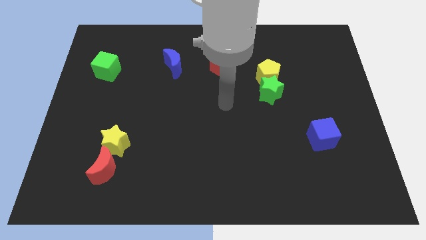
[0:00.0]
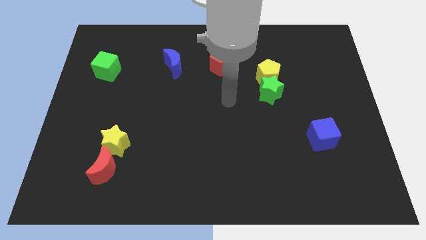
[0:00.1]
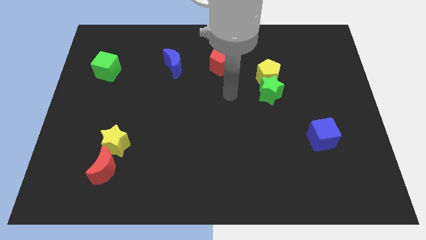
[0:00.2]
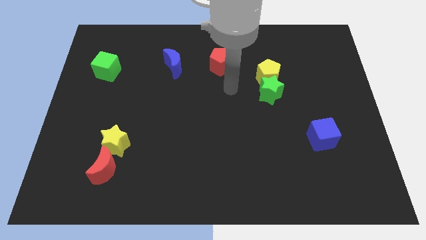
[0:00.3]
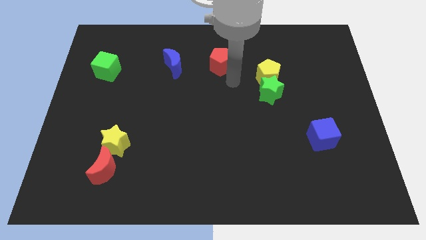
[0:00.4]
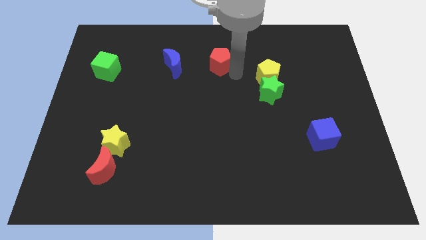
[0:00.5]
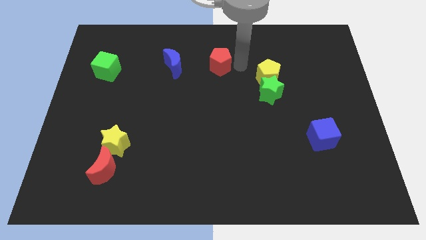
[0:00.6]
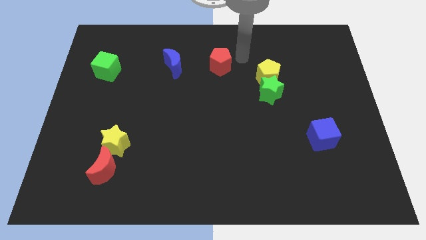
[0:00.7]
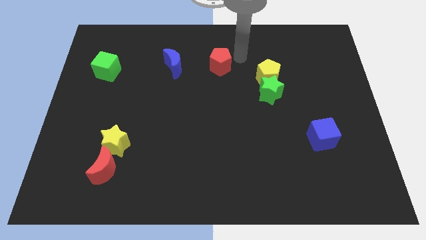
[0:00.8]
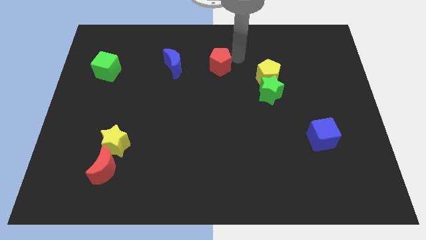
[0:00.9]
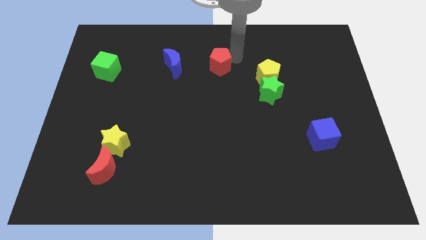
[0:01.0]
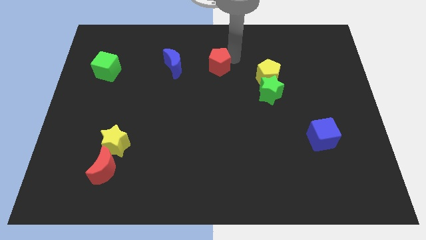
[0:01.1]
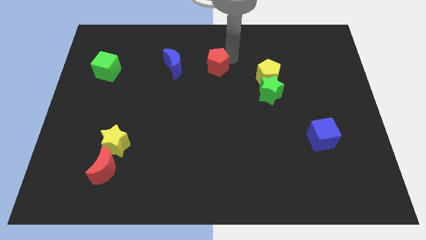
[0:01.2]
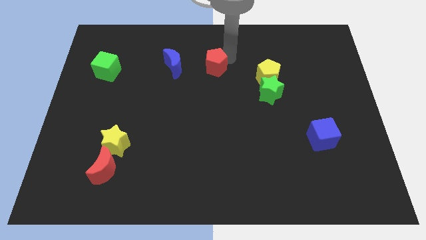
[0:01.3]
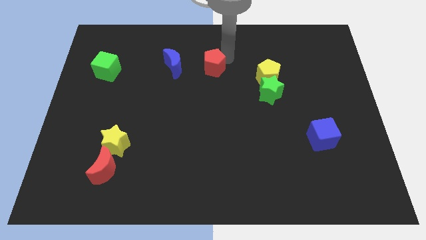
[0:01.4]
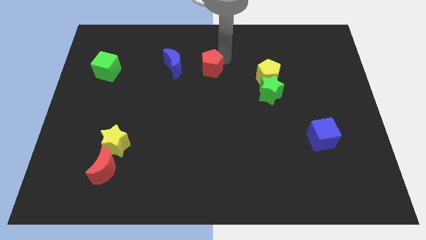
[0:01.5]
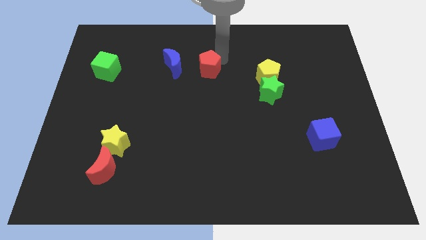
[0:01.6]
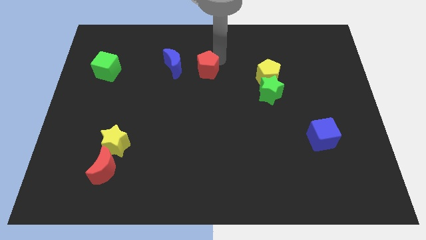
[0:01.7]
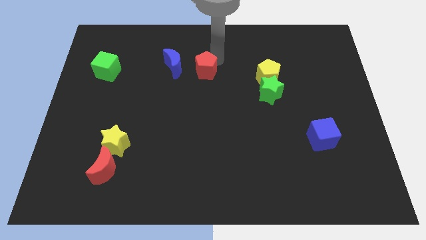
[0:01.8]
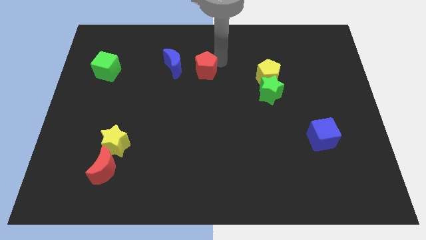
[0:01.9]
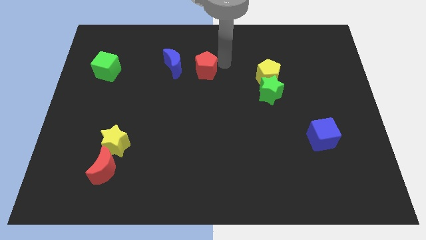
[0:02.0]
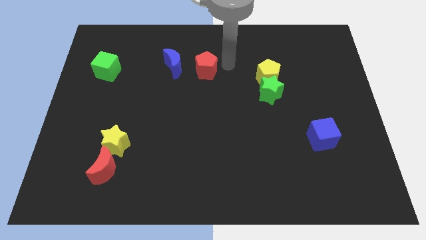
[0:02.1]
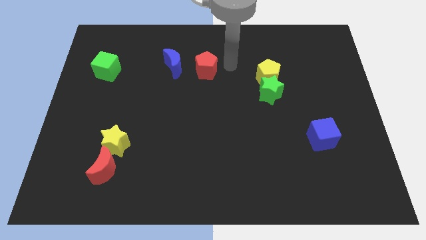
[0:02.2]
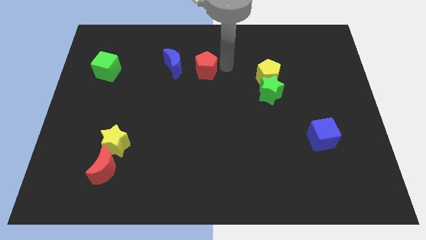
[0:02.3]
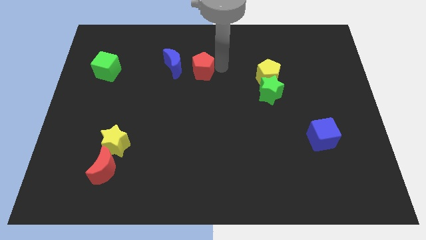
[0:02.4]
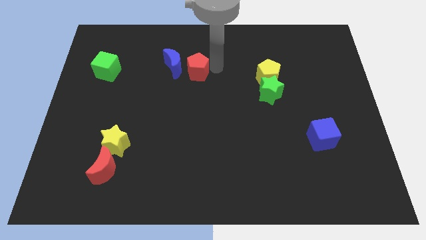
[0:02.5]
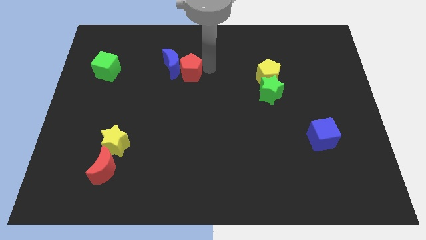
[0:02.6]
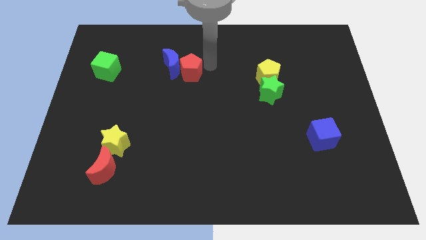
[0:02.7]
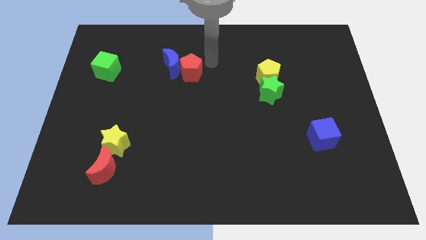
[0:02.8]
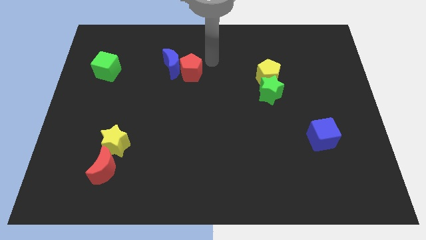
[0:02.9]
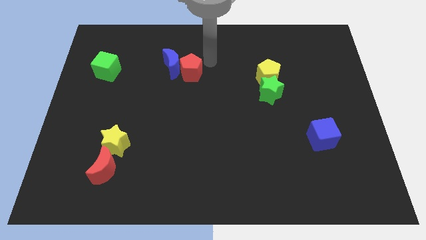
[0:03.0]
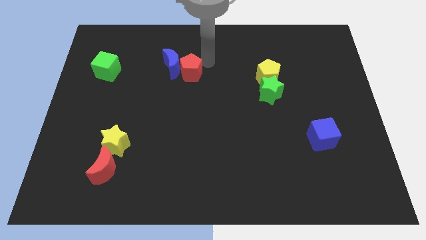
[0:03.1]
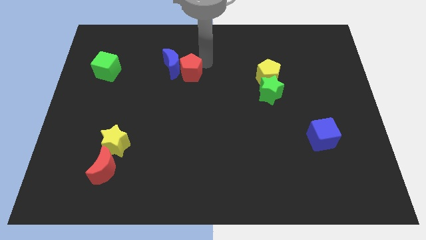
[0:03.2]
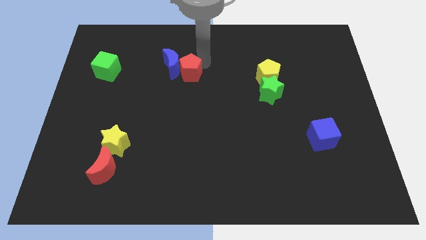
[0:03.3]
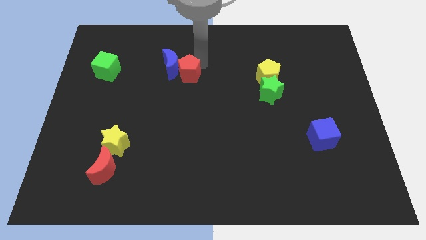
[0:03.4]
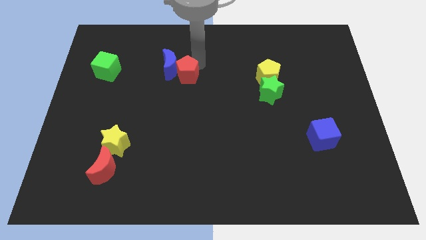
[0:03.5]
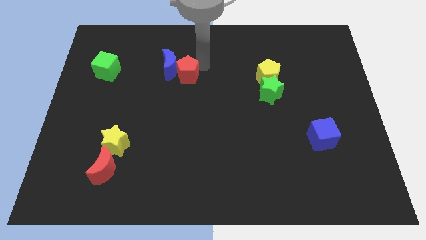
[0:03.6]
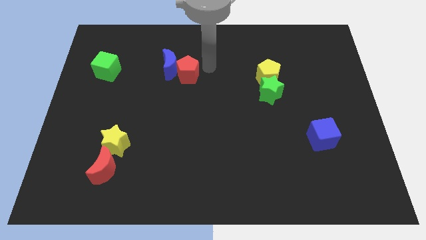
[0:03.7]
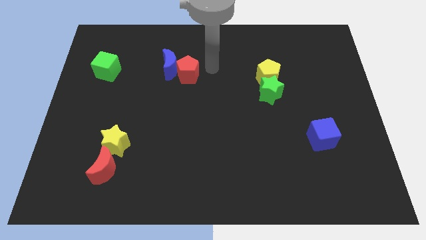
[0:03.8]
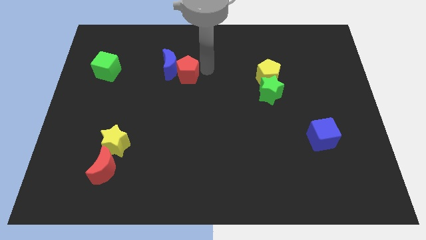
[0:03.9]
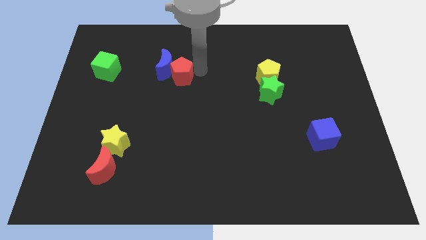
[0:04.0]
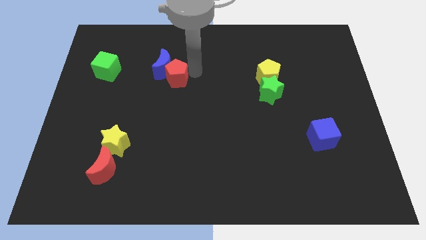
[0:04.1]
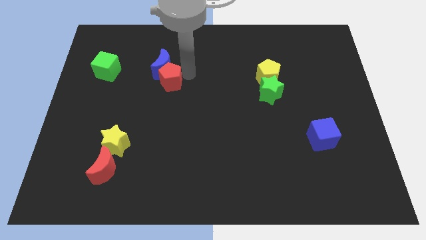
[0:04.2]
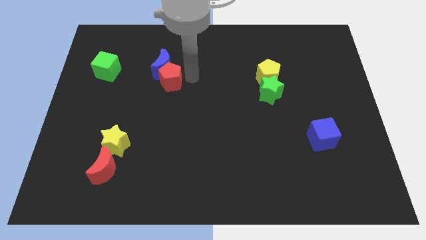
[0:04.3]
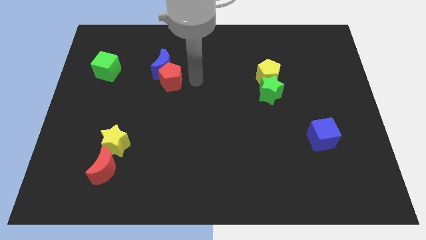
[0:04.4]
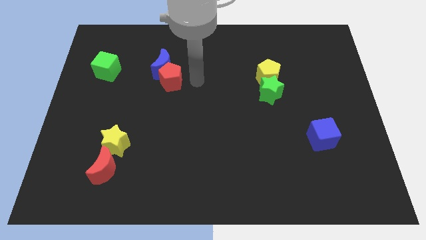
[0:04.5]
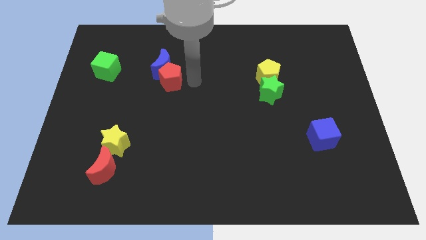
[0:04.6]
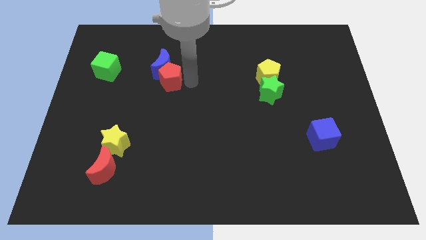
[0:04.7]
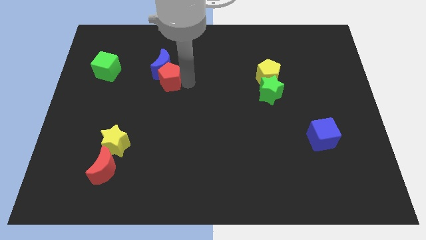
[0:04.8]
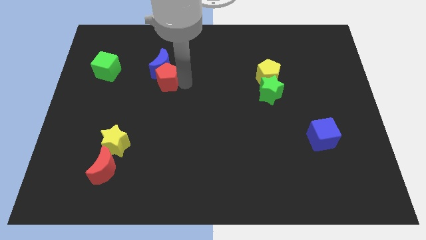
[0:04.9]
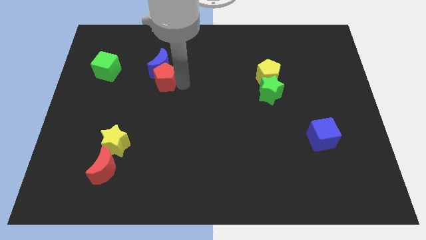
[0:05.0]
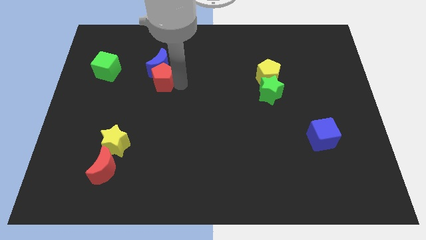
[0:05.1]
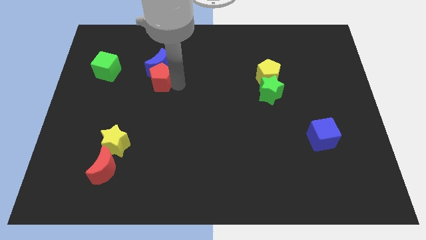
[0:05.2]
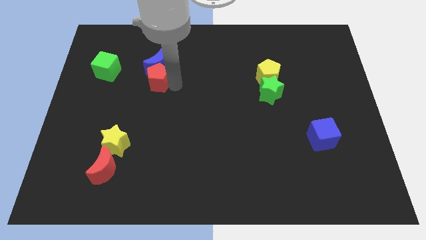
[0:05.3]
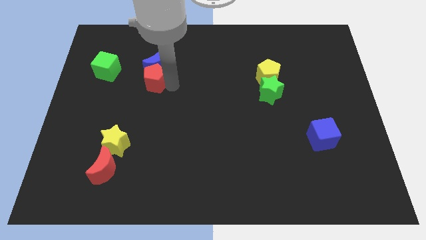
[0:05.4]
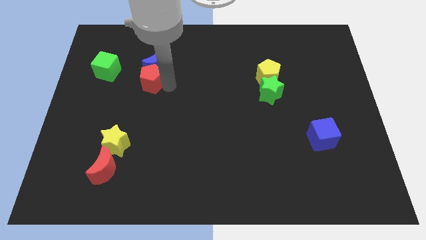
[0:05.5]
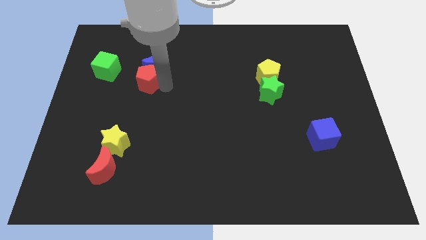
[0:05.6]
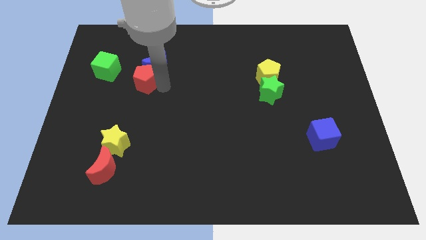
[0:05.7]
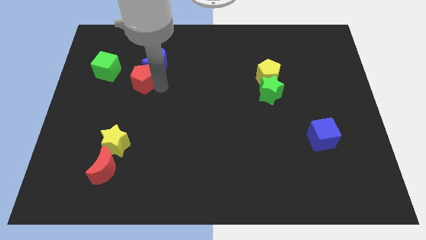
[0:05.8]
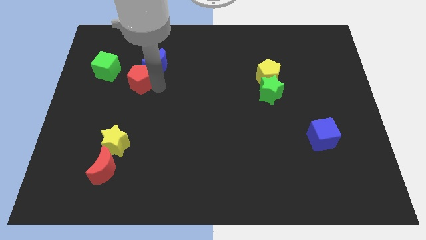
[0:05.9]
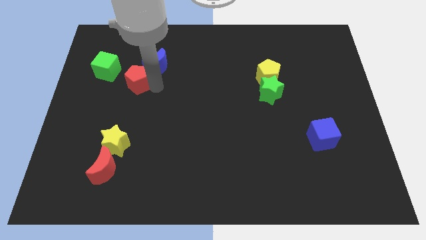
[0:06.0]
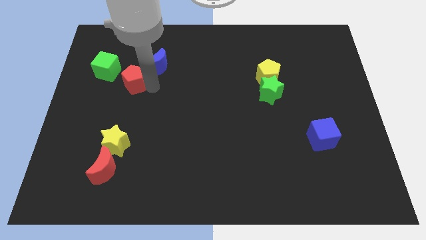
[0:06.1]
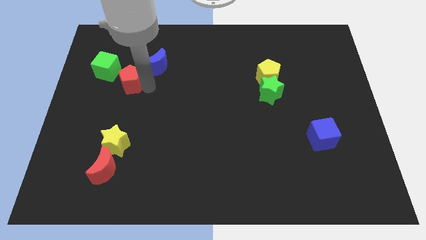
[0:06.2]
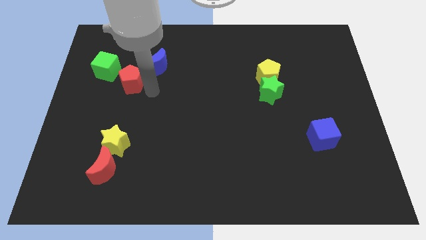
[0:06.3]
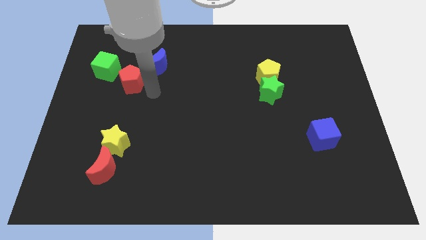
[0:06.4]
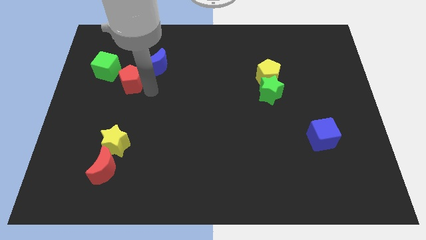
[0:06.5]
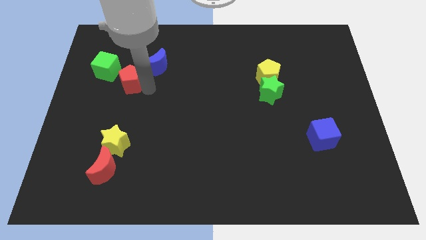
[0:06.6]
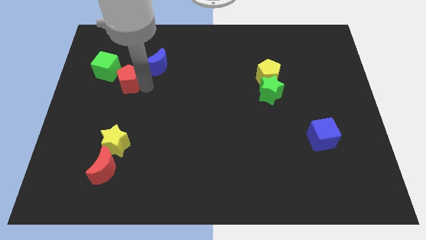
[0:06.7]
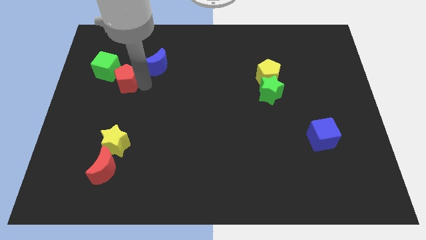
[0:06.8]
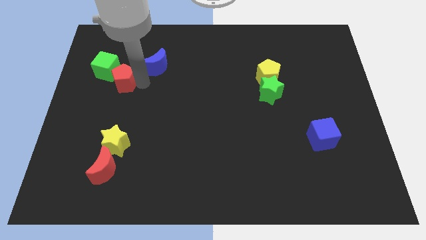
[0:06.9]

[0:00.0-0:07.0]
put the red pentagon towards the green cube

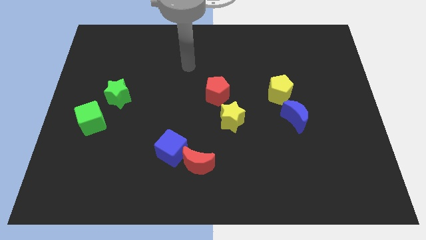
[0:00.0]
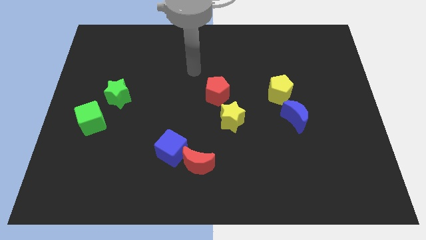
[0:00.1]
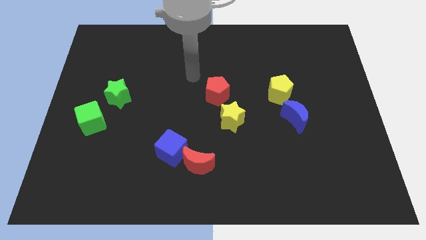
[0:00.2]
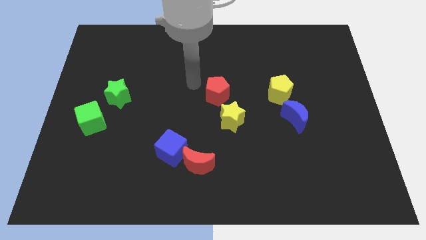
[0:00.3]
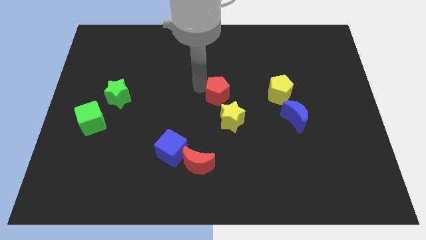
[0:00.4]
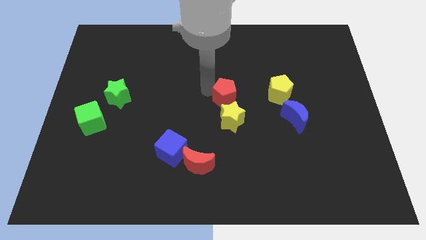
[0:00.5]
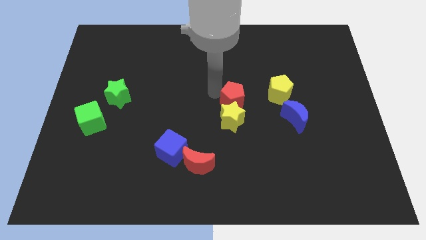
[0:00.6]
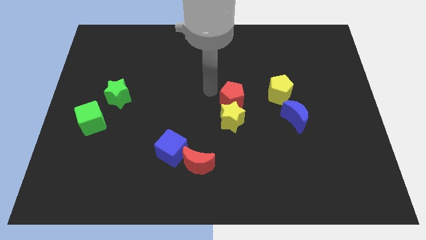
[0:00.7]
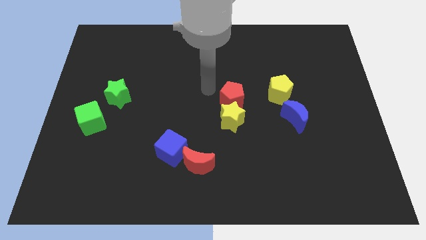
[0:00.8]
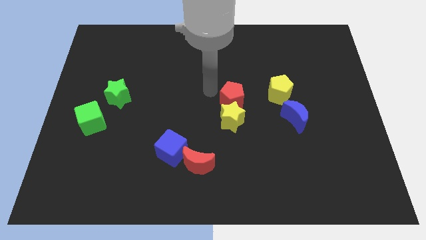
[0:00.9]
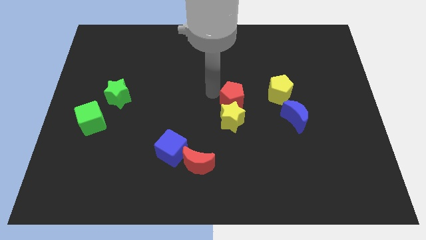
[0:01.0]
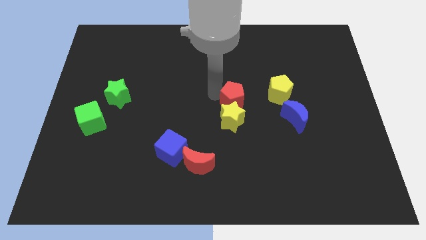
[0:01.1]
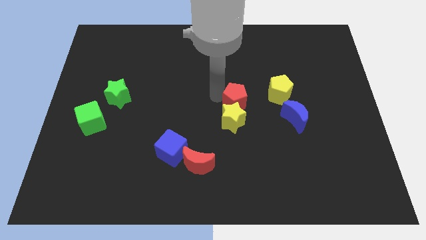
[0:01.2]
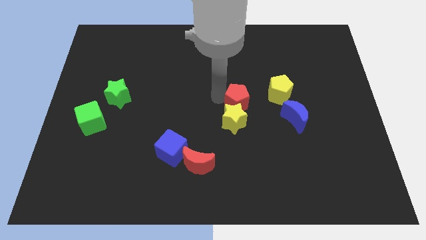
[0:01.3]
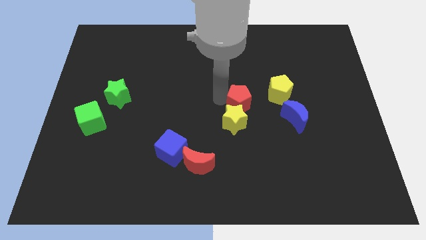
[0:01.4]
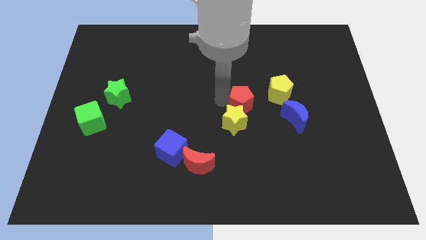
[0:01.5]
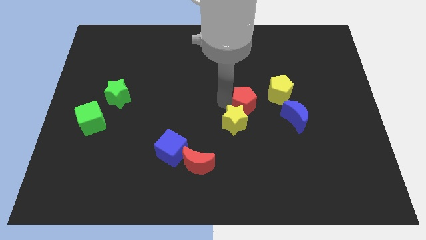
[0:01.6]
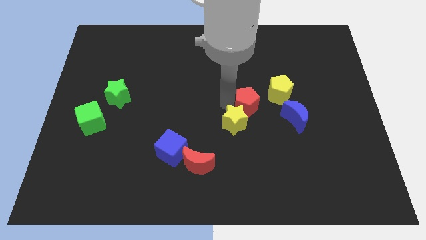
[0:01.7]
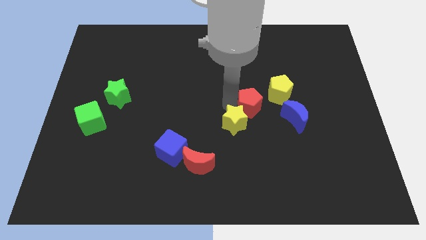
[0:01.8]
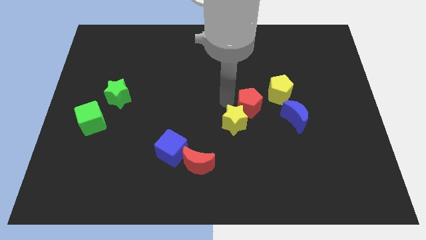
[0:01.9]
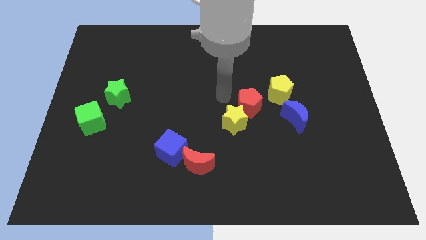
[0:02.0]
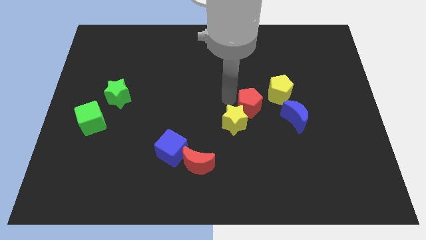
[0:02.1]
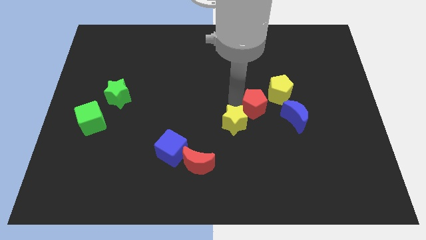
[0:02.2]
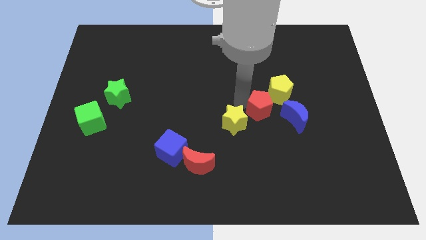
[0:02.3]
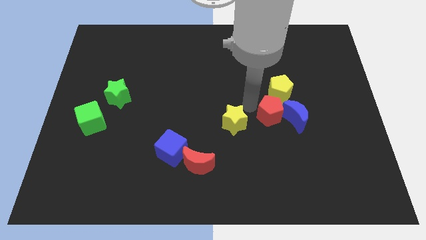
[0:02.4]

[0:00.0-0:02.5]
slide the red pentagon close to the blue moon
